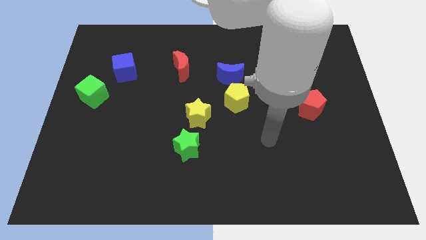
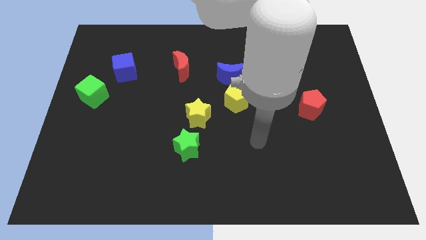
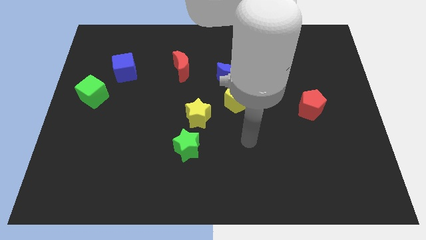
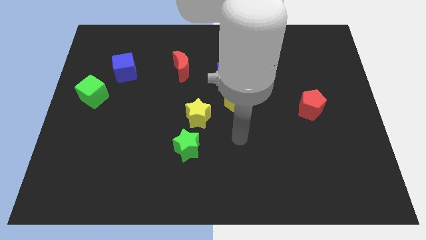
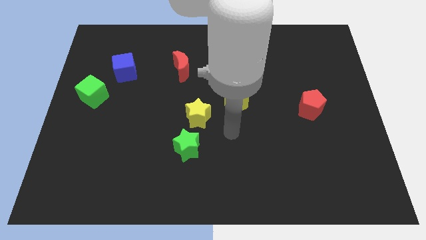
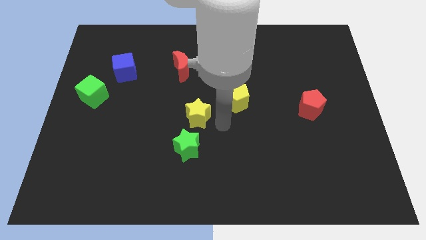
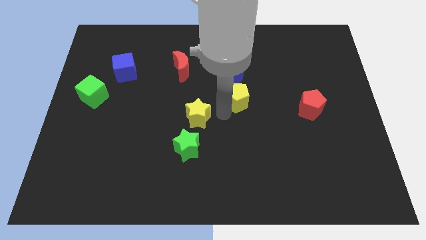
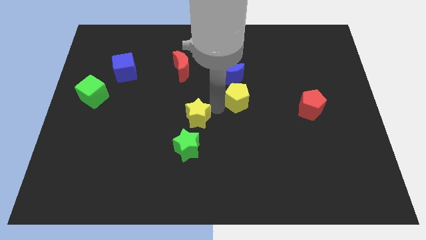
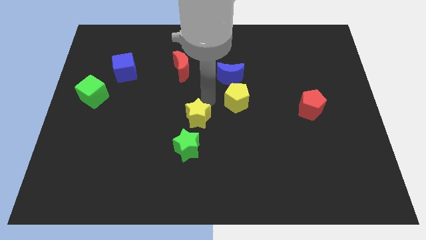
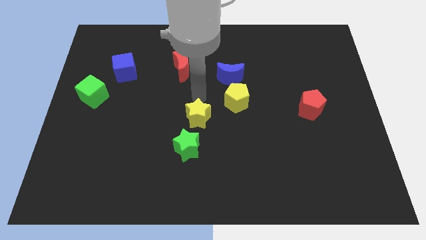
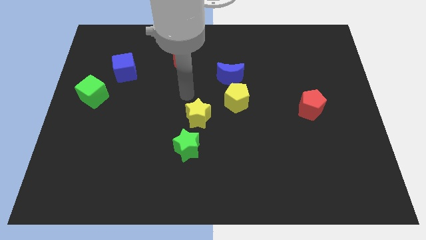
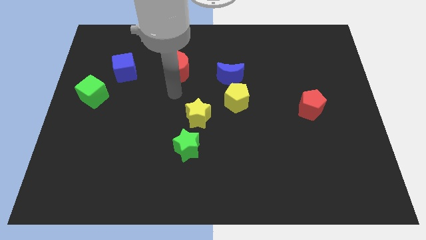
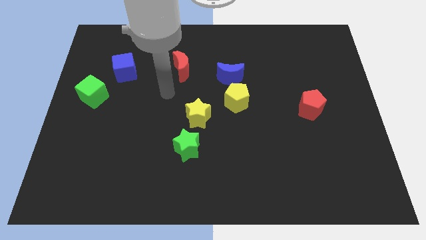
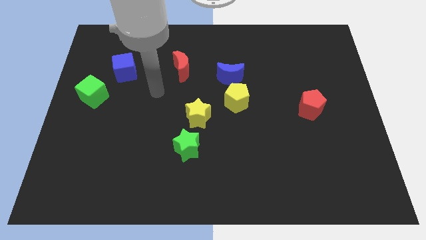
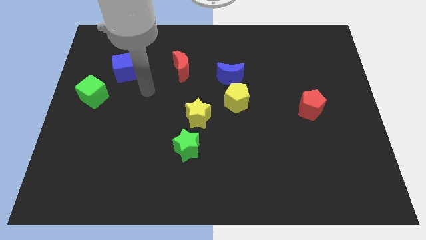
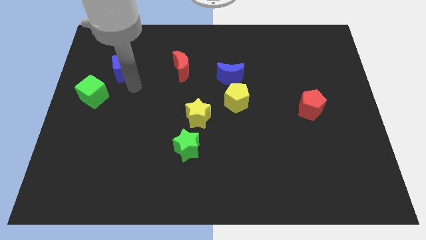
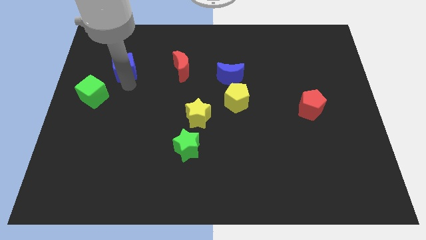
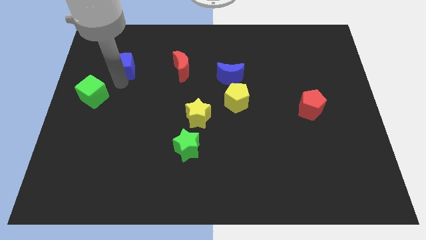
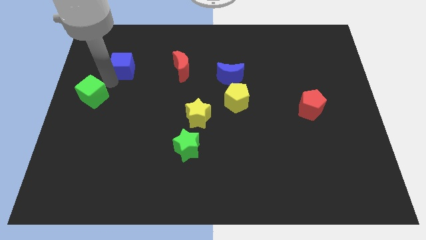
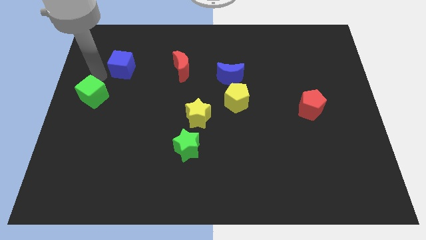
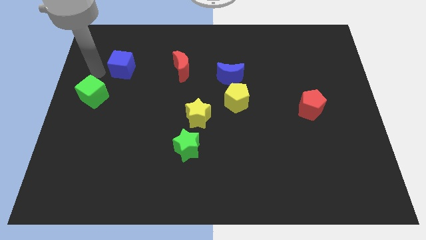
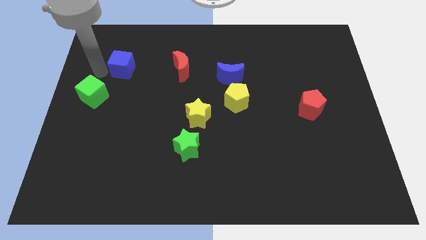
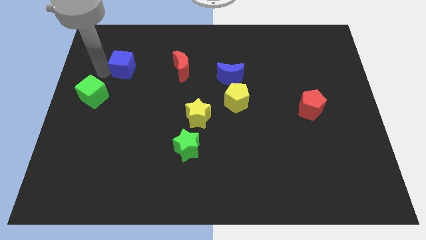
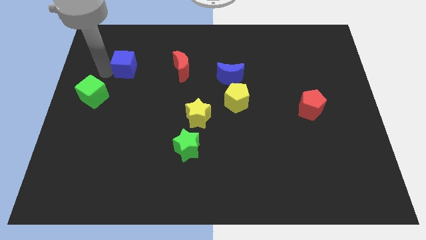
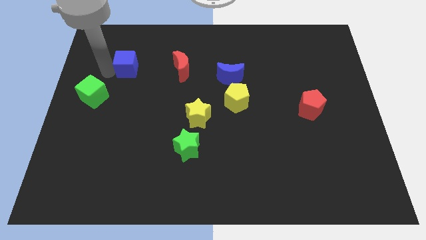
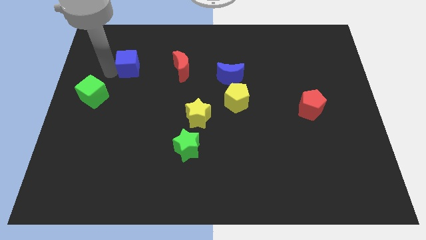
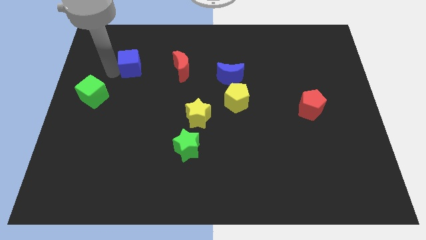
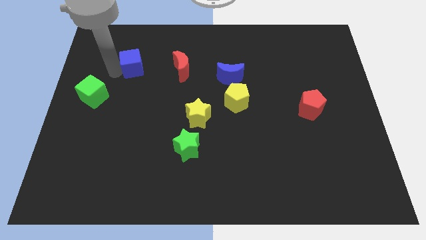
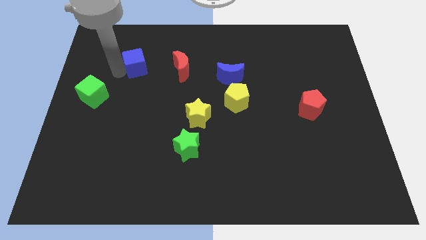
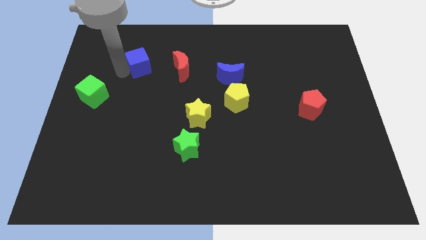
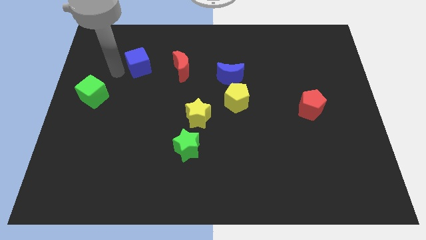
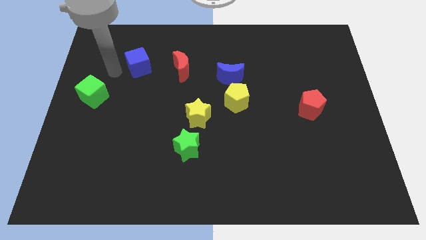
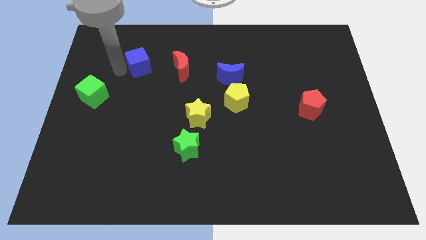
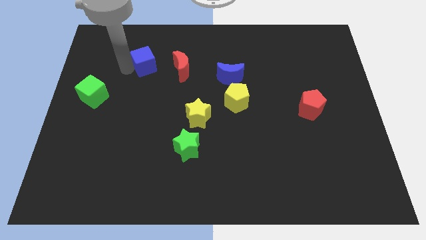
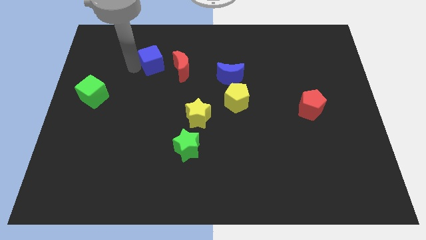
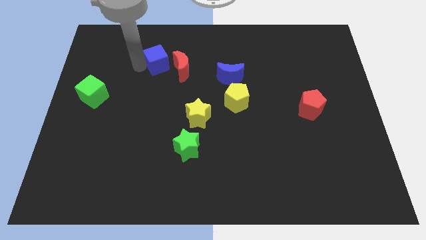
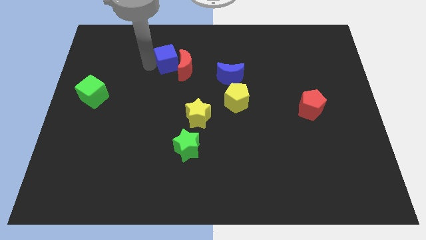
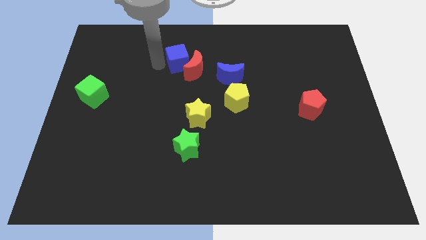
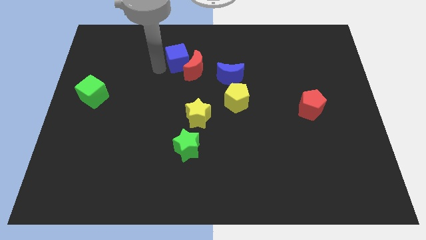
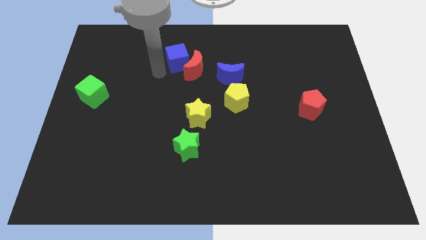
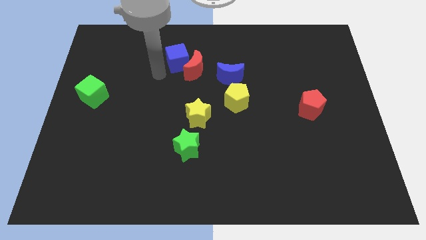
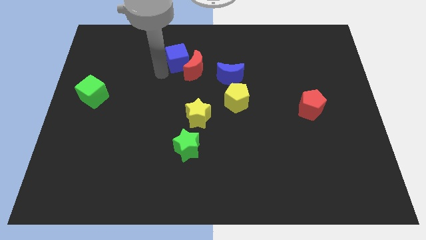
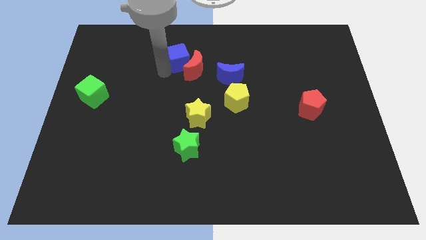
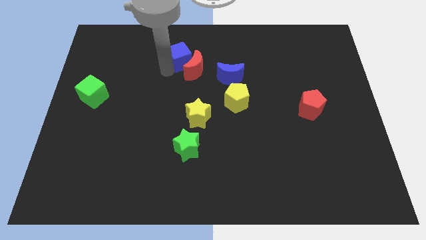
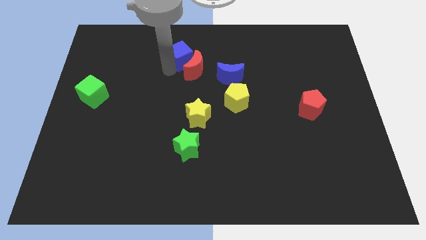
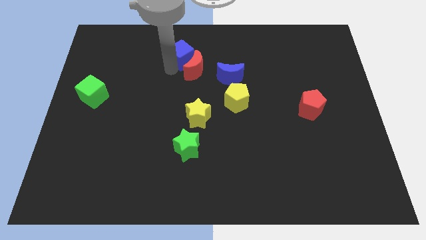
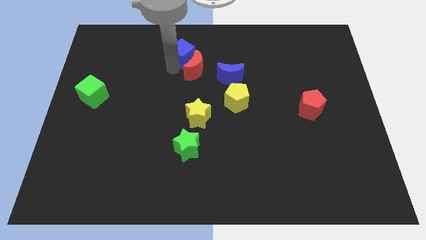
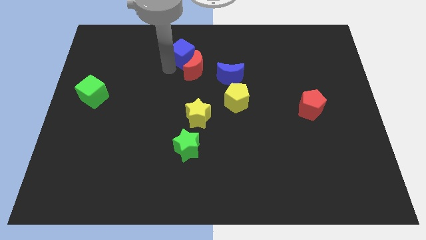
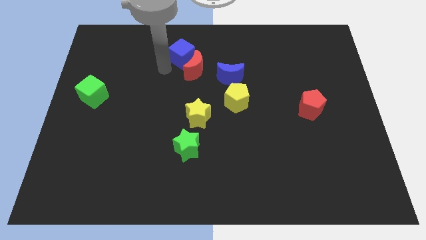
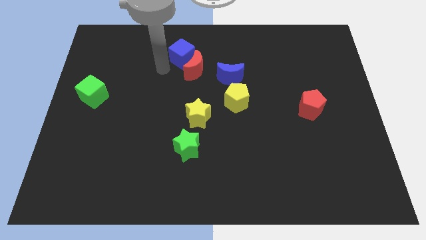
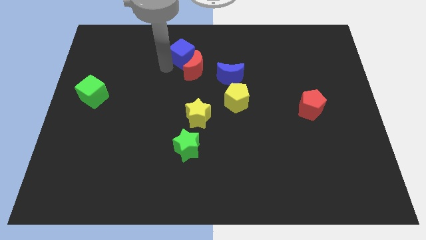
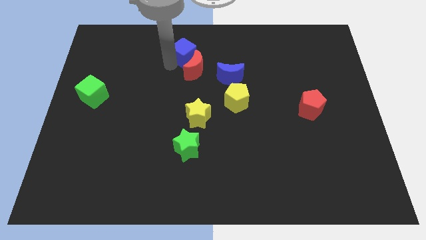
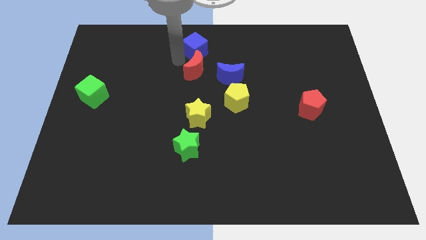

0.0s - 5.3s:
slide the blue cube to the top side

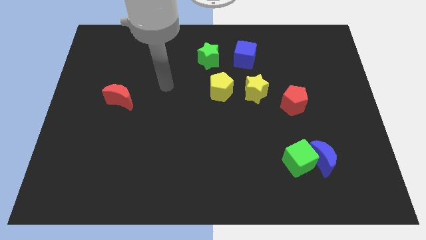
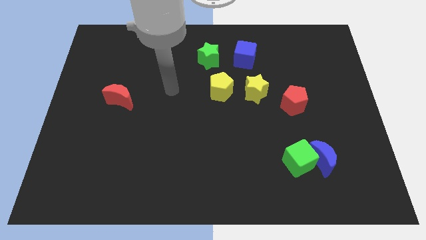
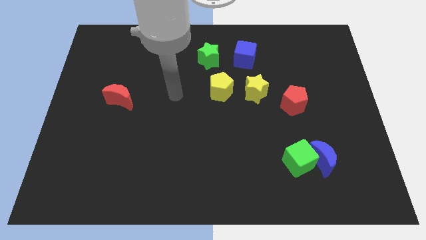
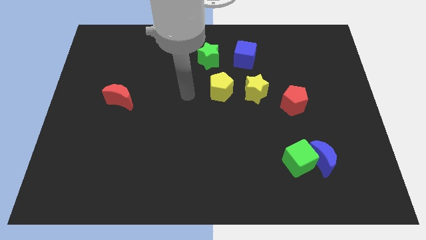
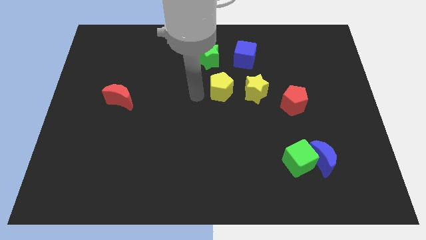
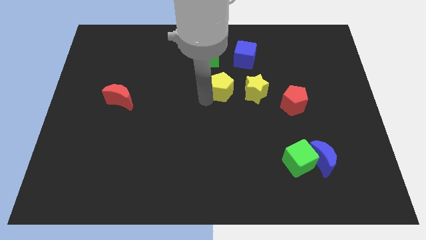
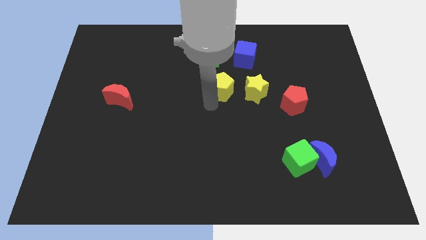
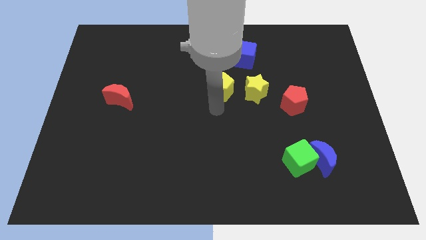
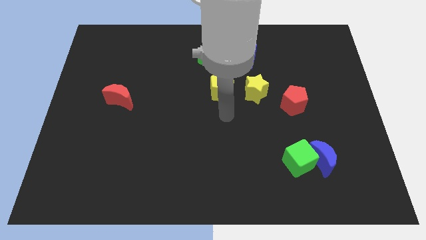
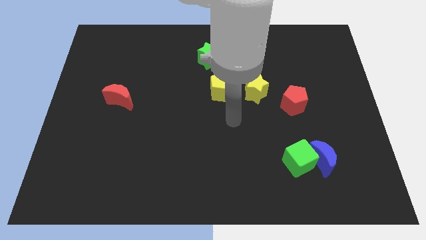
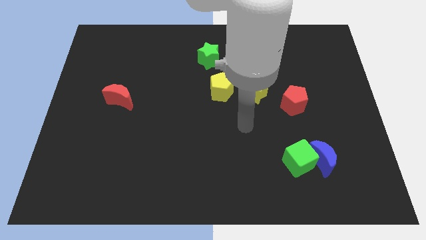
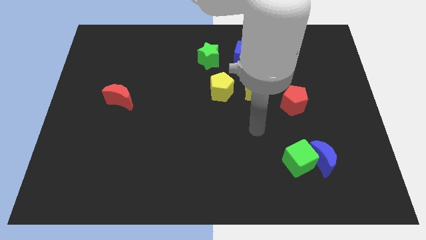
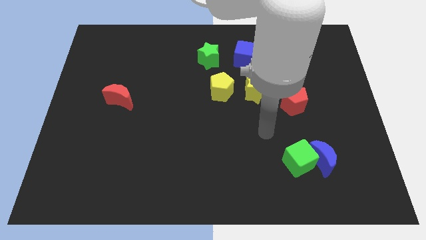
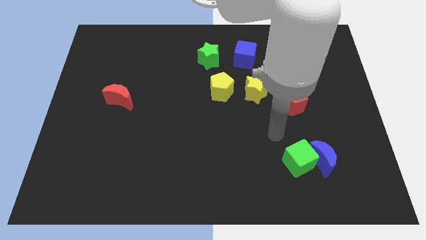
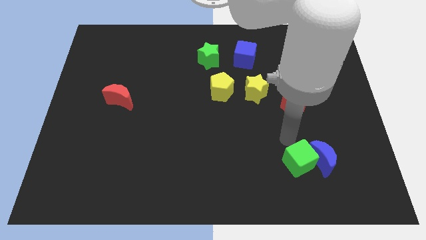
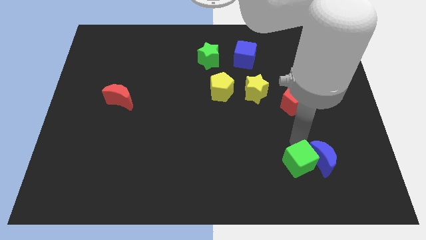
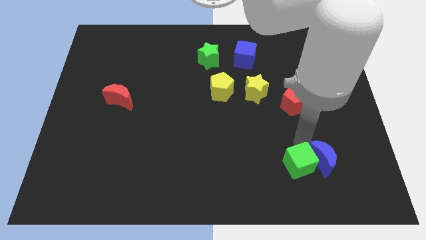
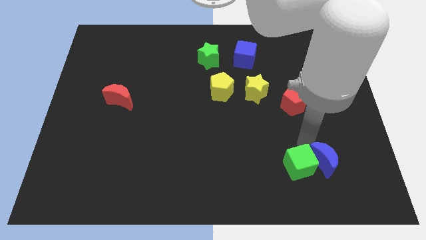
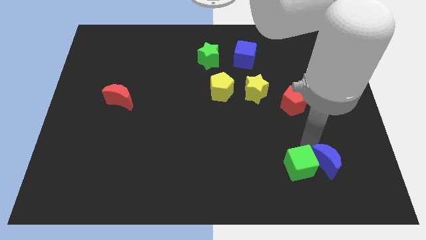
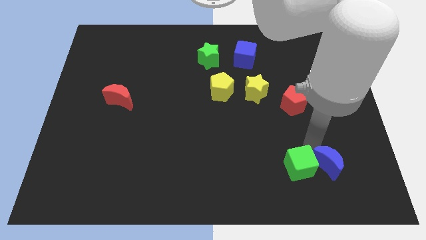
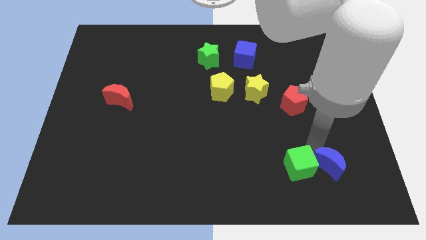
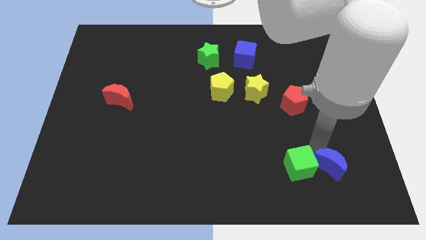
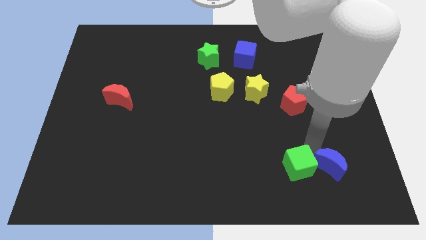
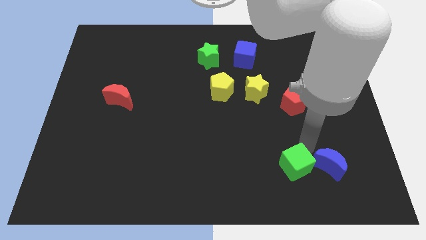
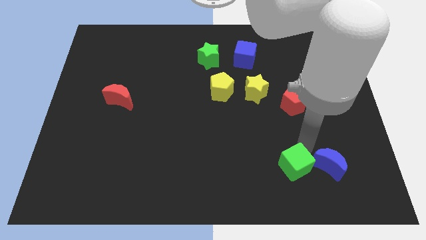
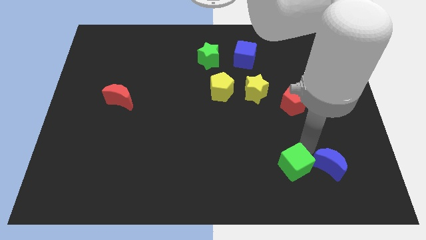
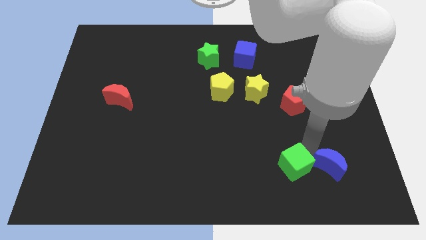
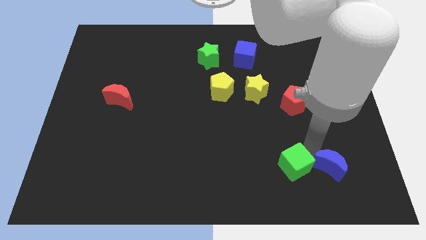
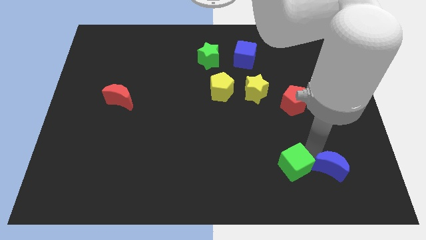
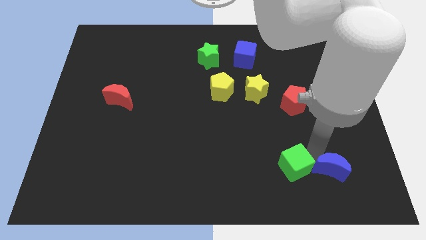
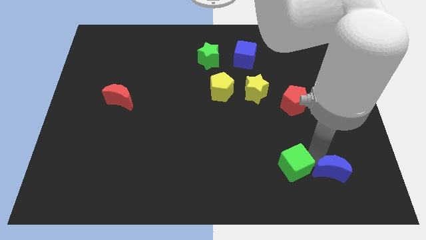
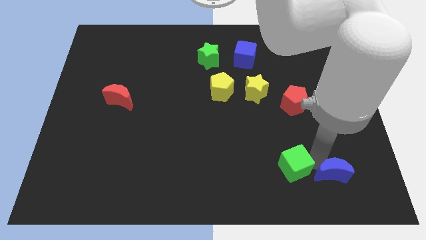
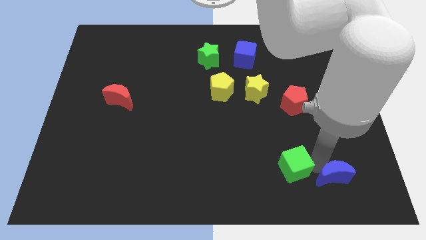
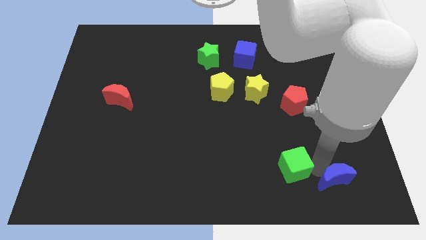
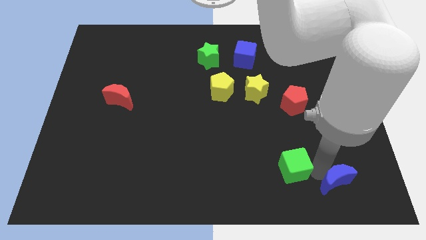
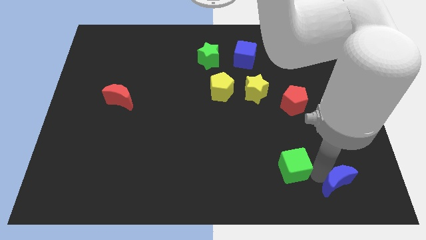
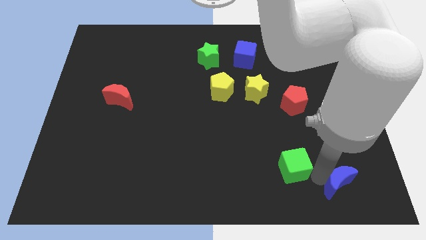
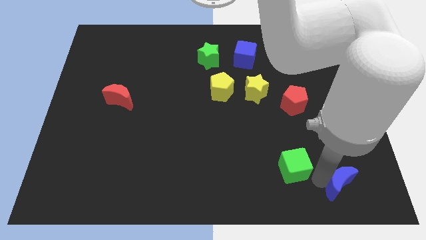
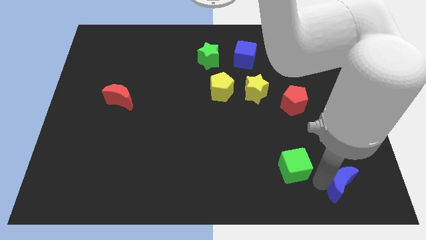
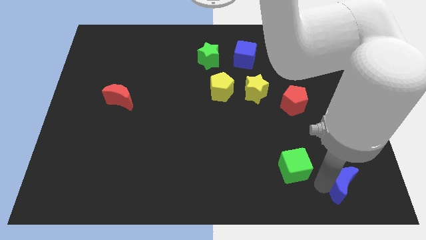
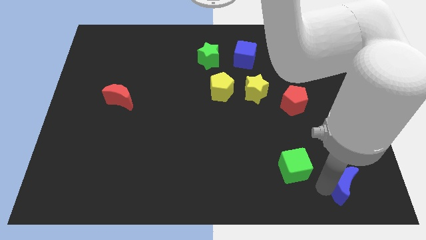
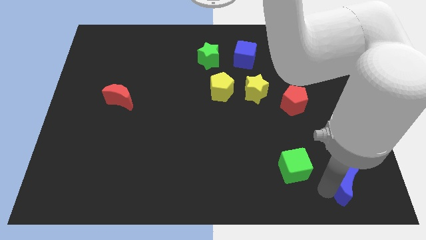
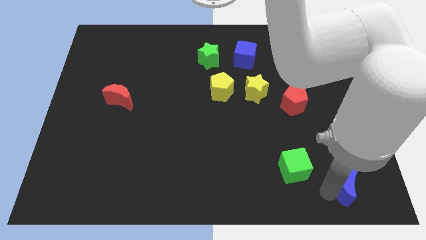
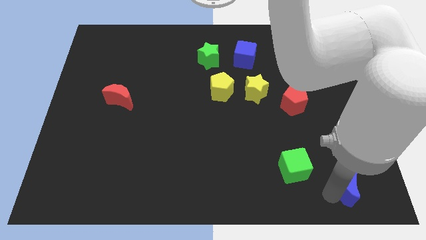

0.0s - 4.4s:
push the blue moon to the bottom right corner
